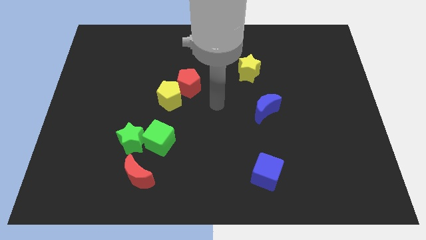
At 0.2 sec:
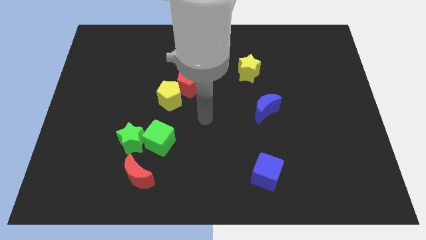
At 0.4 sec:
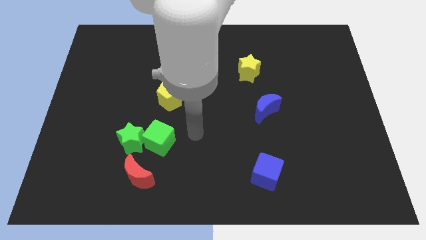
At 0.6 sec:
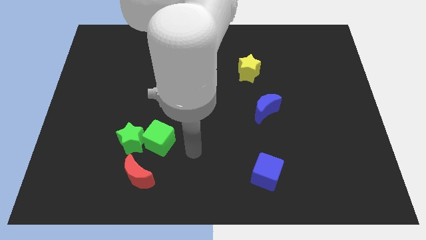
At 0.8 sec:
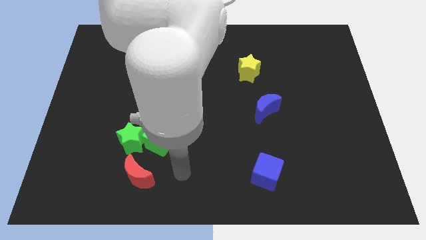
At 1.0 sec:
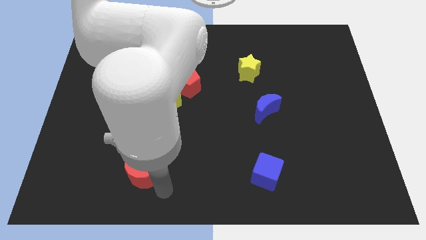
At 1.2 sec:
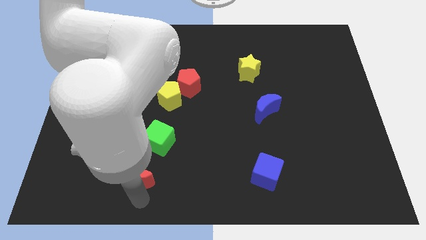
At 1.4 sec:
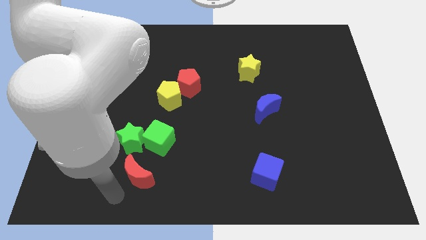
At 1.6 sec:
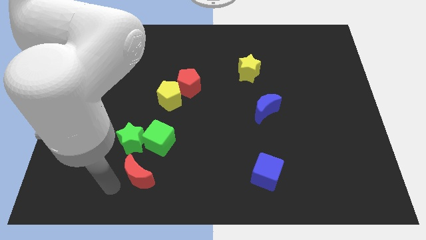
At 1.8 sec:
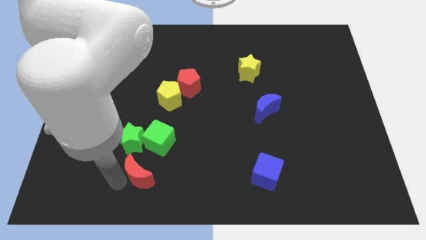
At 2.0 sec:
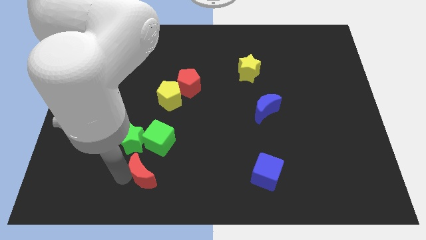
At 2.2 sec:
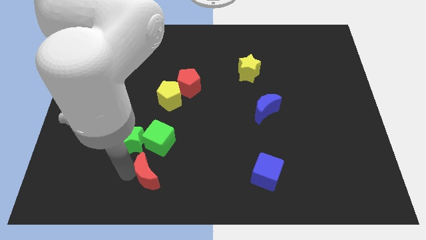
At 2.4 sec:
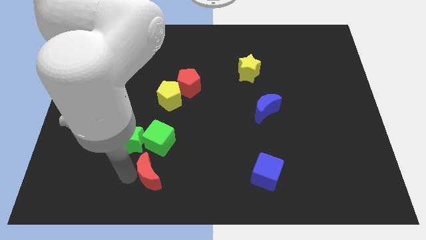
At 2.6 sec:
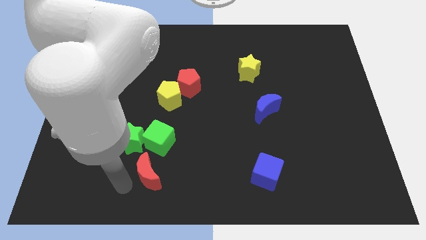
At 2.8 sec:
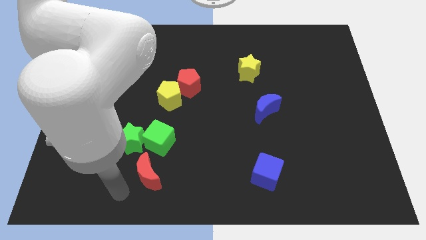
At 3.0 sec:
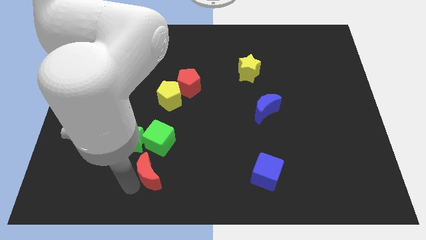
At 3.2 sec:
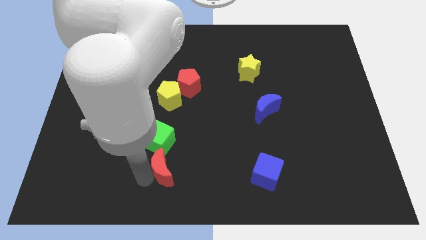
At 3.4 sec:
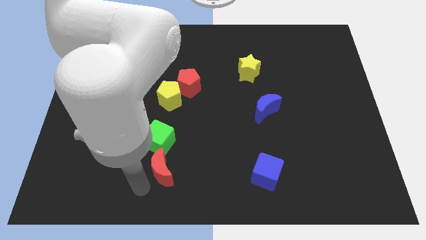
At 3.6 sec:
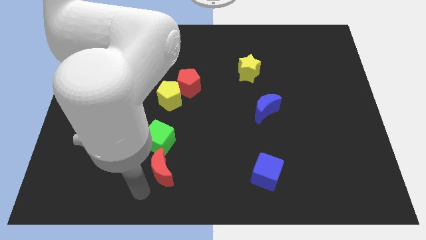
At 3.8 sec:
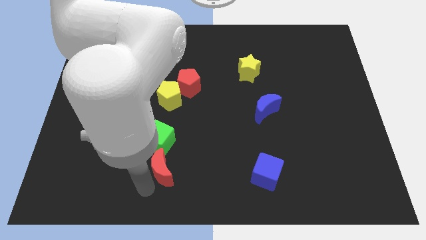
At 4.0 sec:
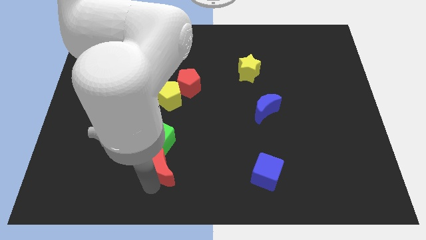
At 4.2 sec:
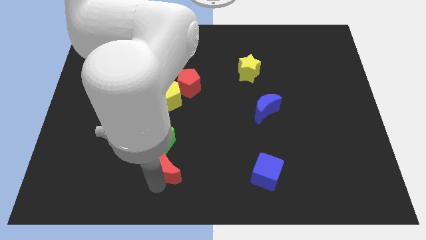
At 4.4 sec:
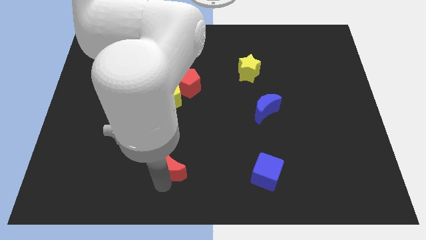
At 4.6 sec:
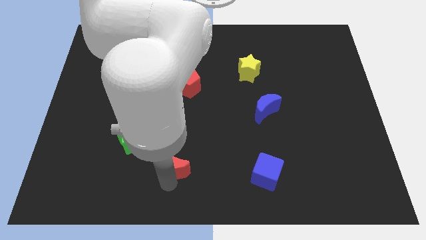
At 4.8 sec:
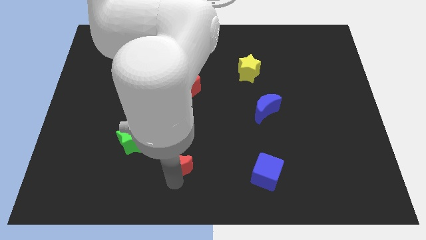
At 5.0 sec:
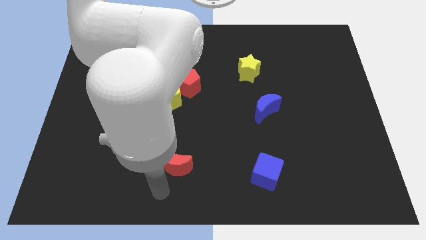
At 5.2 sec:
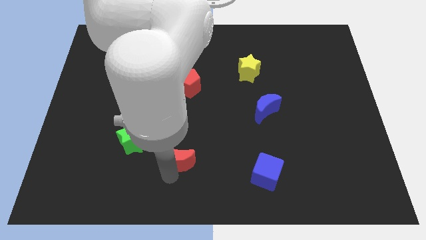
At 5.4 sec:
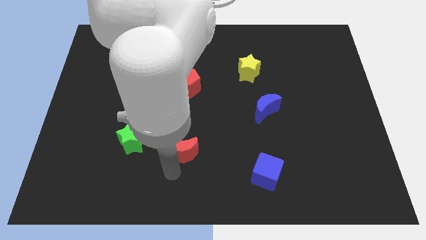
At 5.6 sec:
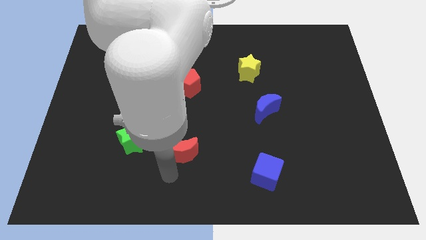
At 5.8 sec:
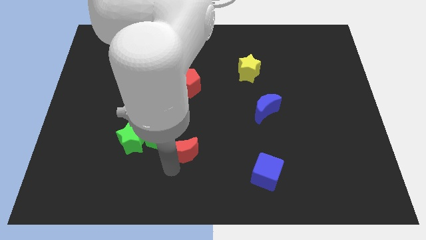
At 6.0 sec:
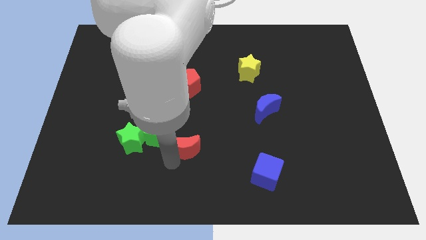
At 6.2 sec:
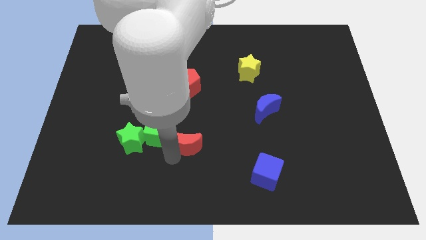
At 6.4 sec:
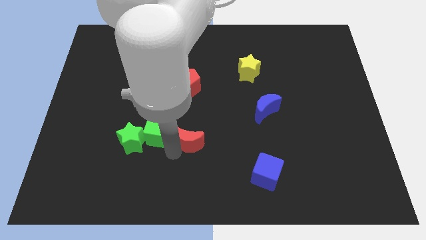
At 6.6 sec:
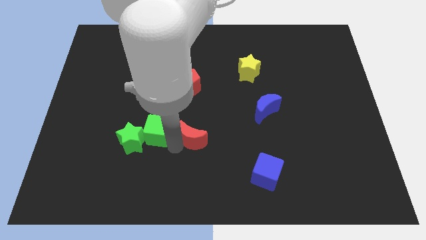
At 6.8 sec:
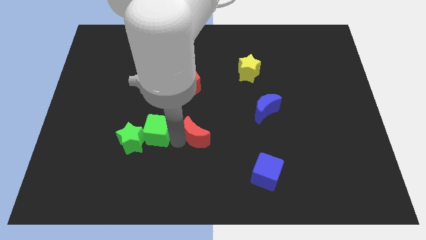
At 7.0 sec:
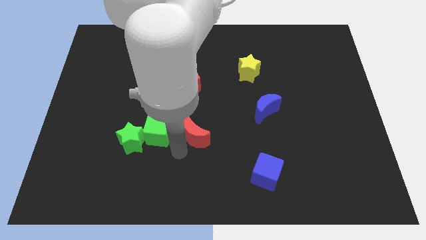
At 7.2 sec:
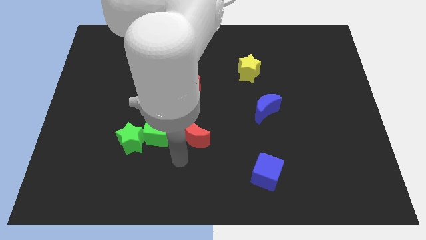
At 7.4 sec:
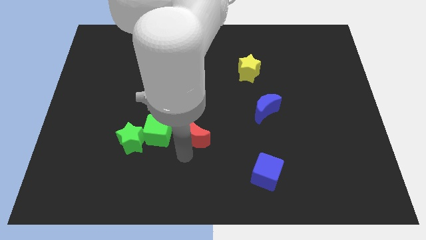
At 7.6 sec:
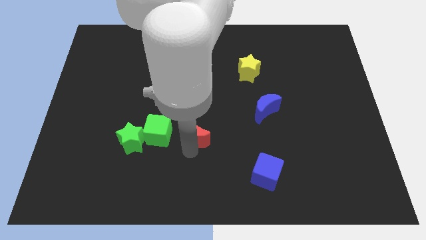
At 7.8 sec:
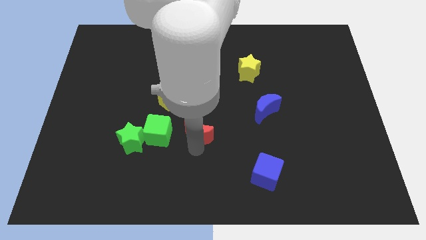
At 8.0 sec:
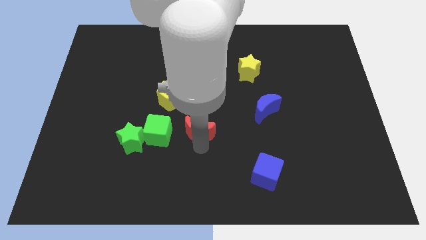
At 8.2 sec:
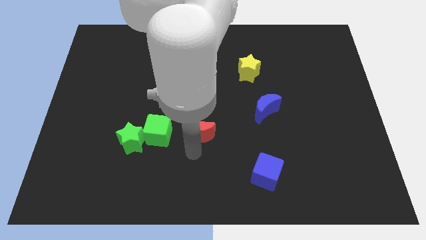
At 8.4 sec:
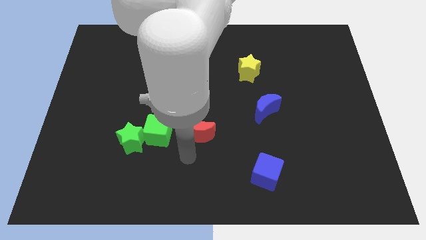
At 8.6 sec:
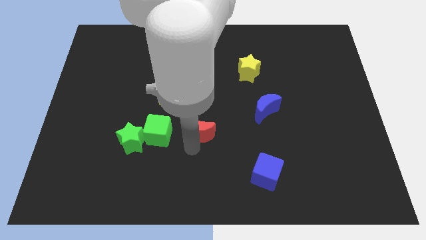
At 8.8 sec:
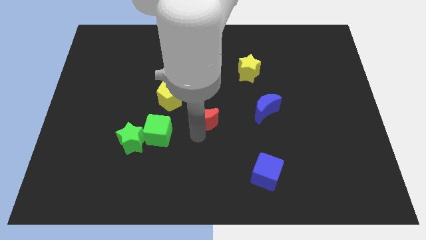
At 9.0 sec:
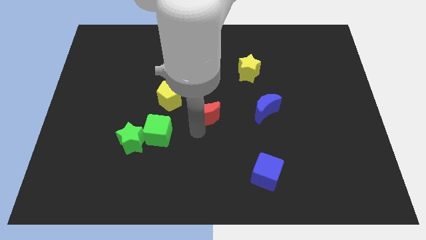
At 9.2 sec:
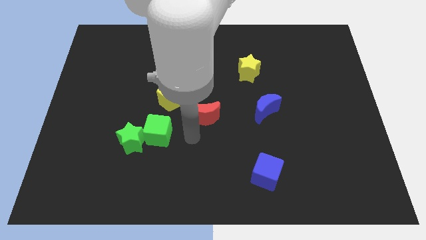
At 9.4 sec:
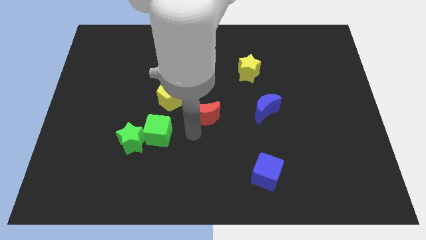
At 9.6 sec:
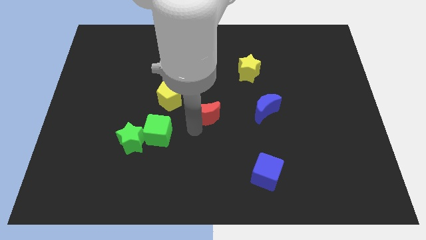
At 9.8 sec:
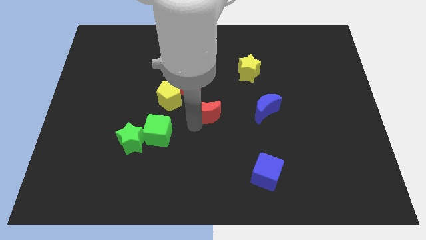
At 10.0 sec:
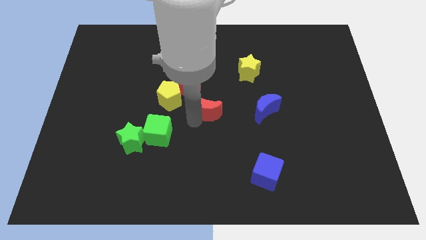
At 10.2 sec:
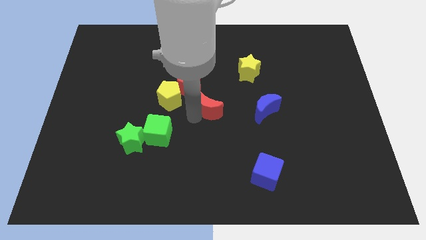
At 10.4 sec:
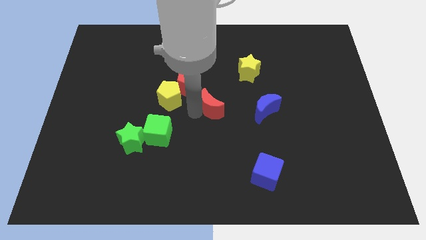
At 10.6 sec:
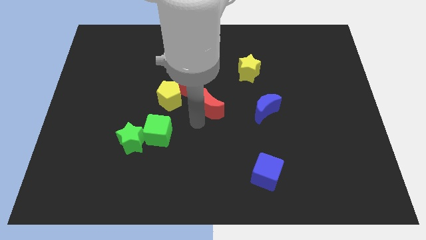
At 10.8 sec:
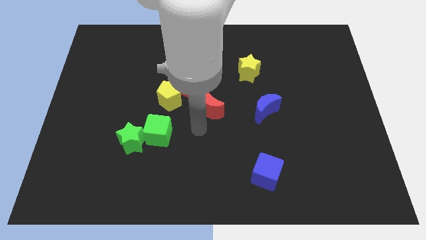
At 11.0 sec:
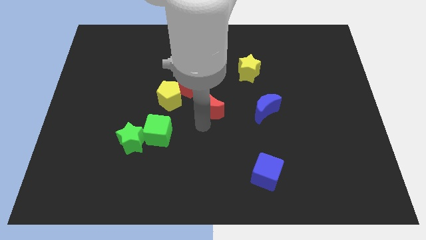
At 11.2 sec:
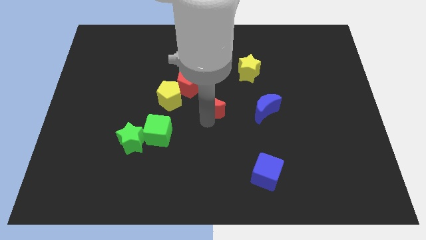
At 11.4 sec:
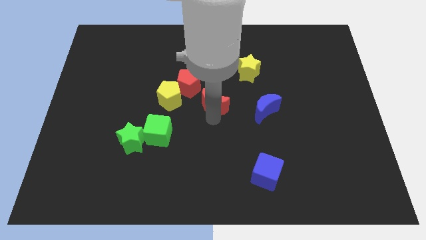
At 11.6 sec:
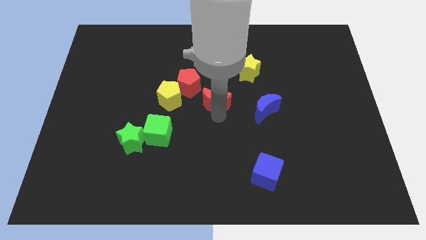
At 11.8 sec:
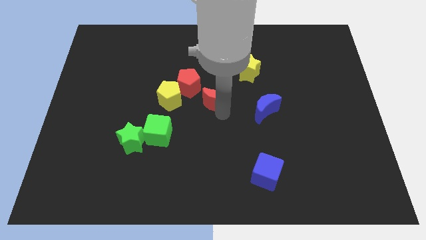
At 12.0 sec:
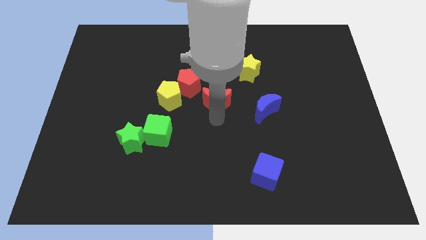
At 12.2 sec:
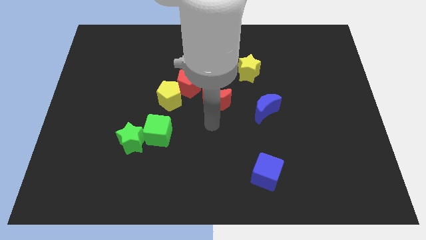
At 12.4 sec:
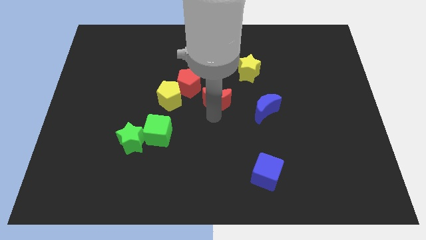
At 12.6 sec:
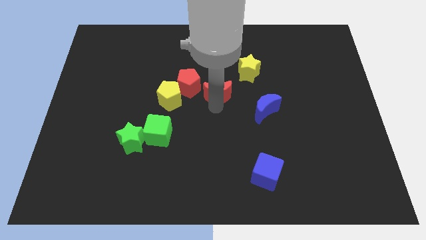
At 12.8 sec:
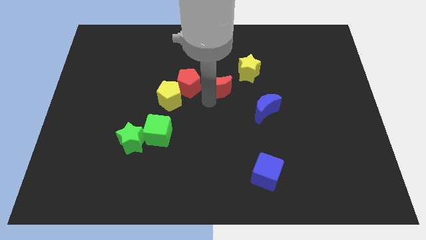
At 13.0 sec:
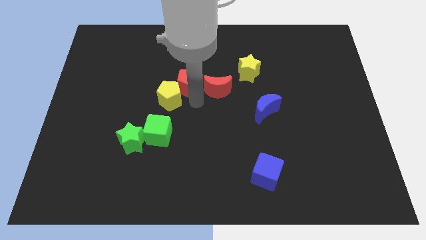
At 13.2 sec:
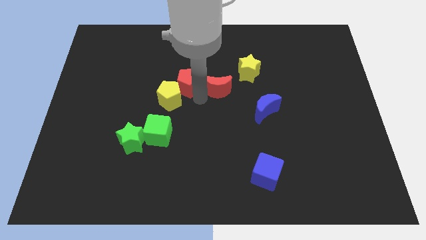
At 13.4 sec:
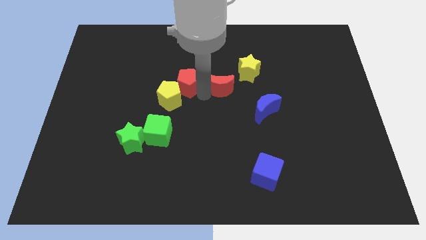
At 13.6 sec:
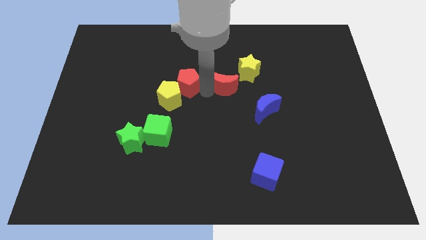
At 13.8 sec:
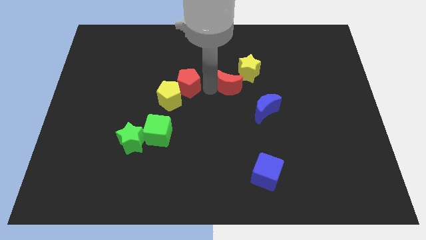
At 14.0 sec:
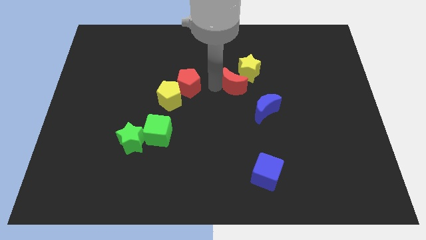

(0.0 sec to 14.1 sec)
put the red moon to the yellow star
